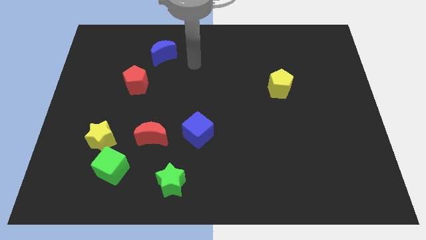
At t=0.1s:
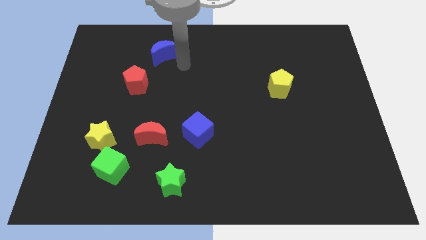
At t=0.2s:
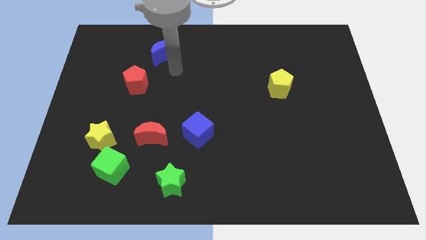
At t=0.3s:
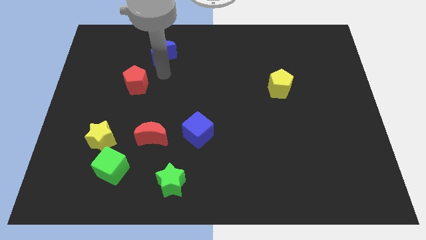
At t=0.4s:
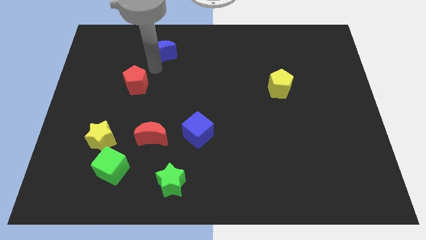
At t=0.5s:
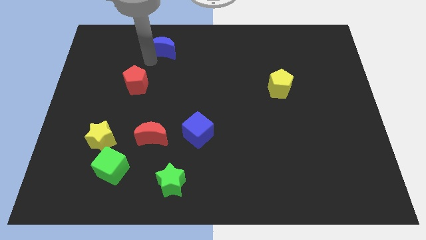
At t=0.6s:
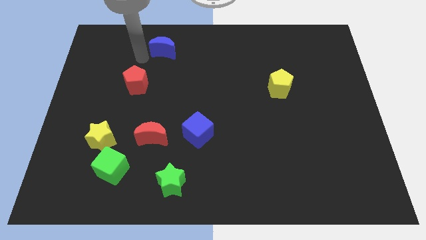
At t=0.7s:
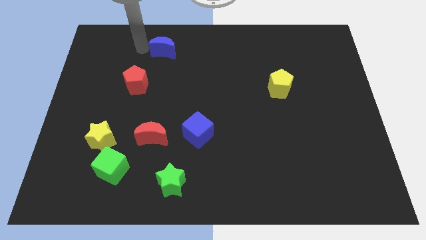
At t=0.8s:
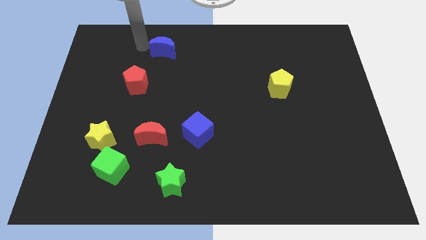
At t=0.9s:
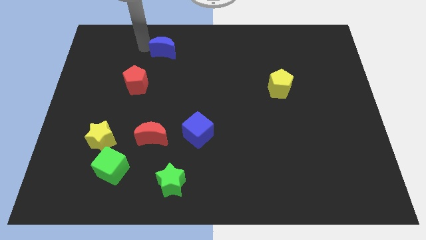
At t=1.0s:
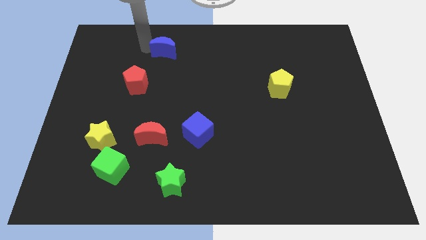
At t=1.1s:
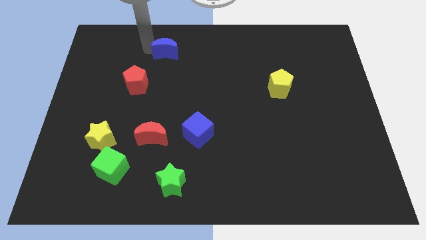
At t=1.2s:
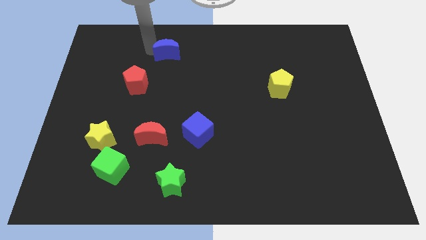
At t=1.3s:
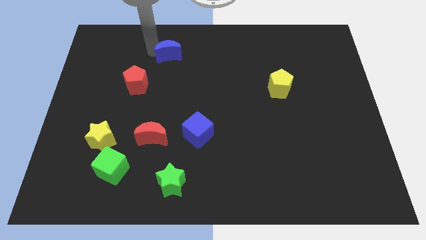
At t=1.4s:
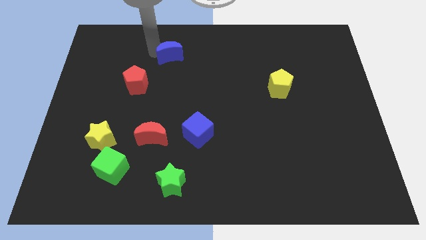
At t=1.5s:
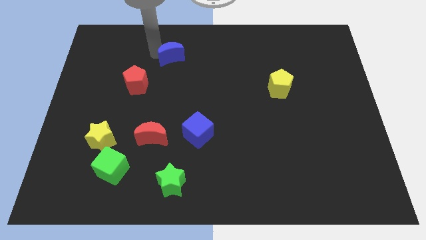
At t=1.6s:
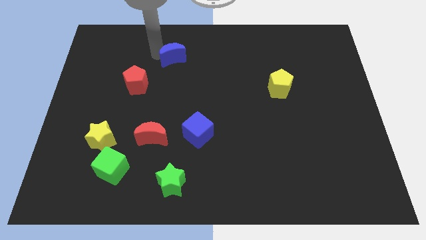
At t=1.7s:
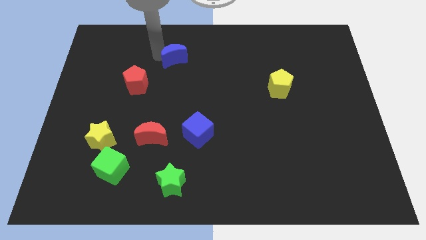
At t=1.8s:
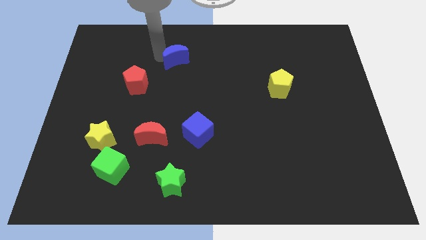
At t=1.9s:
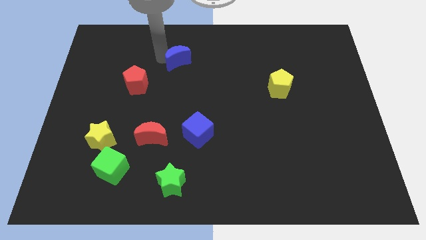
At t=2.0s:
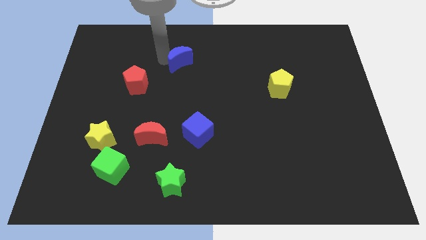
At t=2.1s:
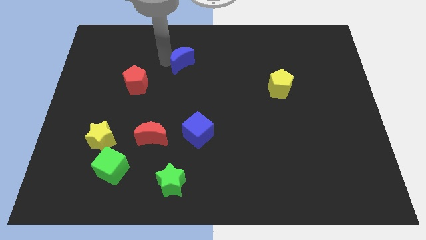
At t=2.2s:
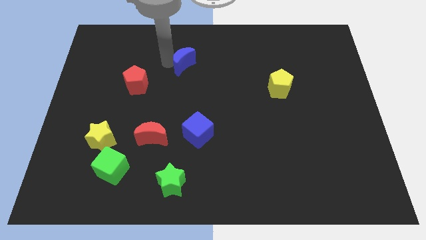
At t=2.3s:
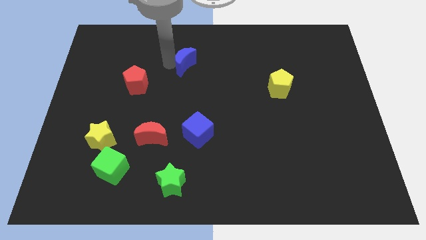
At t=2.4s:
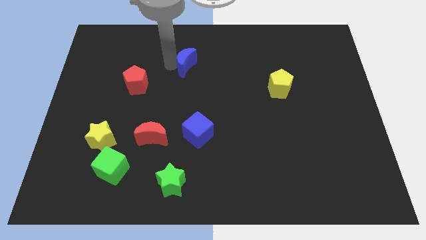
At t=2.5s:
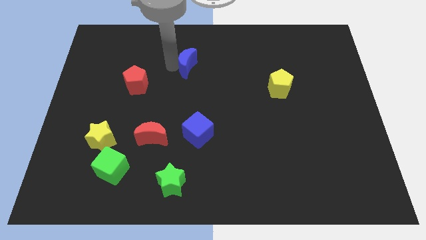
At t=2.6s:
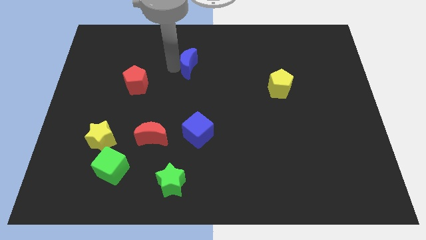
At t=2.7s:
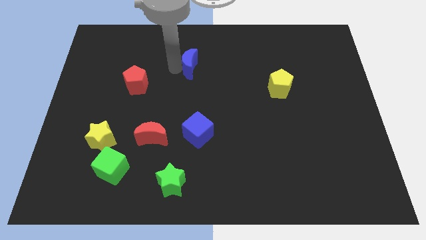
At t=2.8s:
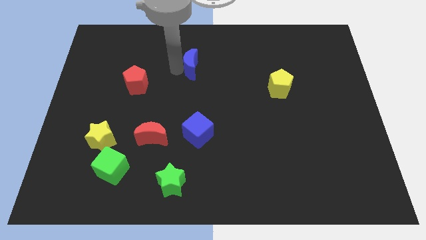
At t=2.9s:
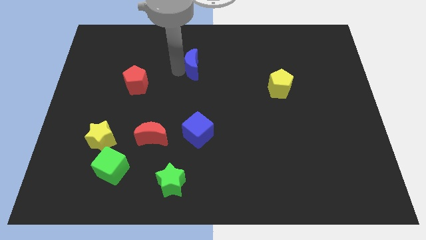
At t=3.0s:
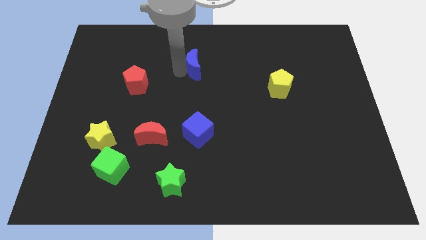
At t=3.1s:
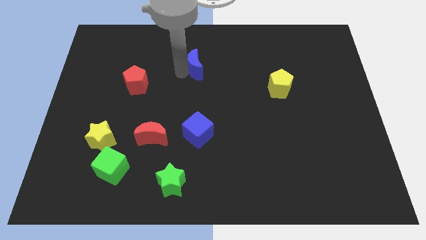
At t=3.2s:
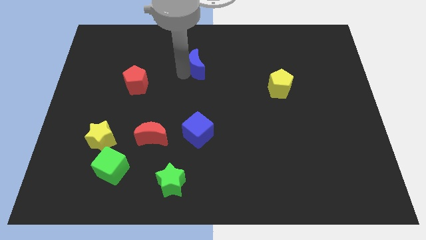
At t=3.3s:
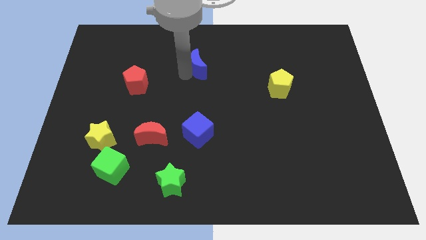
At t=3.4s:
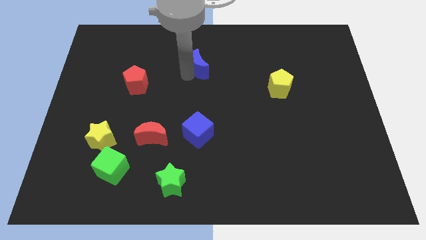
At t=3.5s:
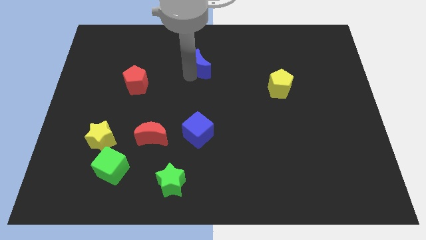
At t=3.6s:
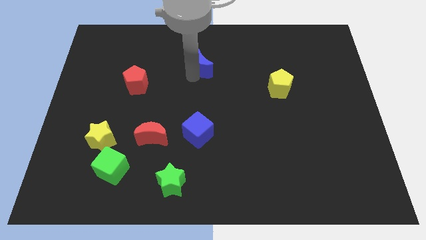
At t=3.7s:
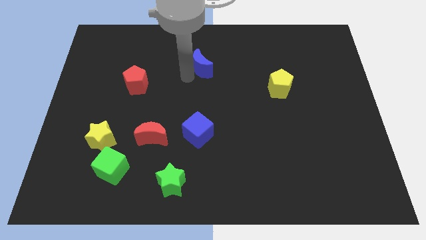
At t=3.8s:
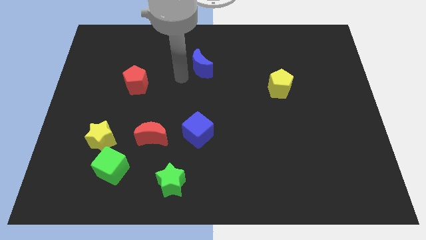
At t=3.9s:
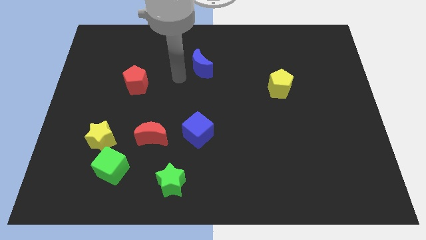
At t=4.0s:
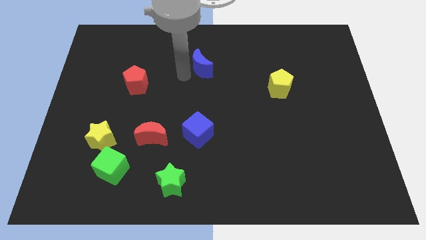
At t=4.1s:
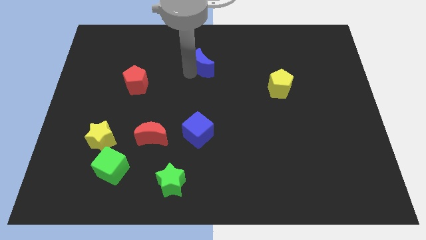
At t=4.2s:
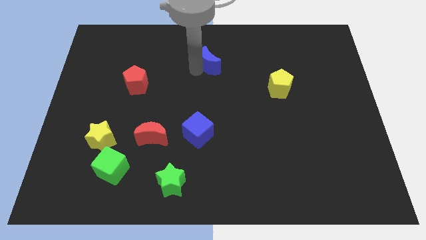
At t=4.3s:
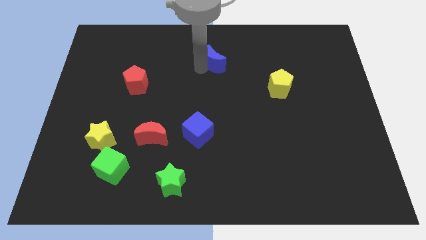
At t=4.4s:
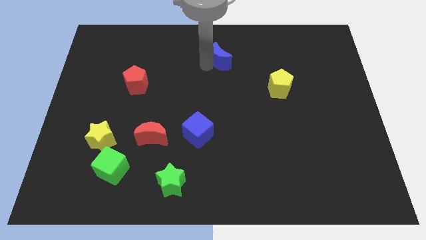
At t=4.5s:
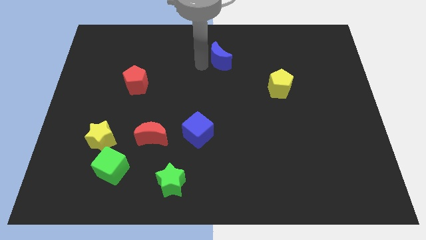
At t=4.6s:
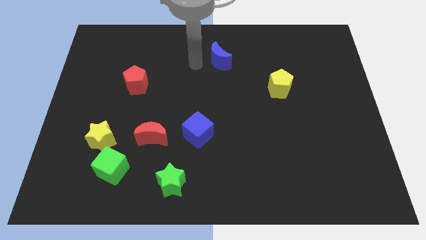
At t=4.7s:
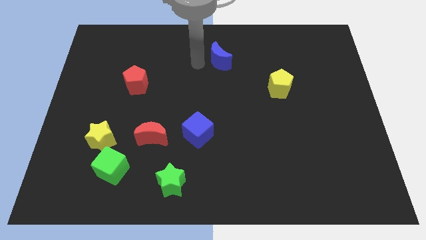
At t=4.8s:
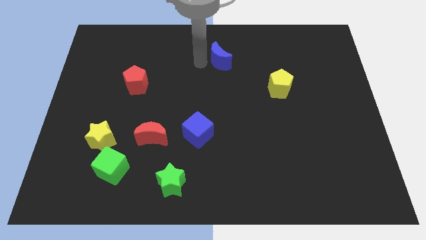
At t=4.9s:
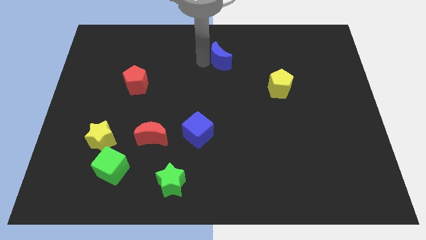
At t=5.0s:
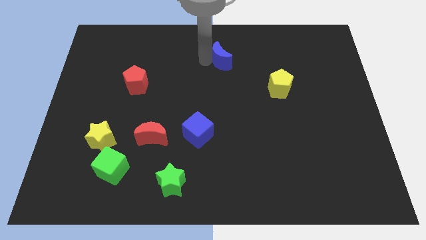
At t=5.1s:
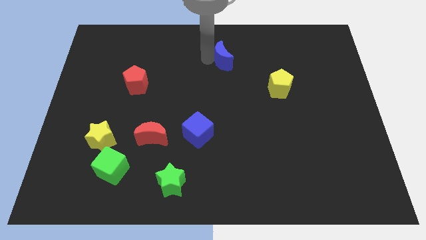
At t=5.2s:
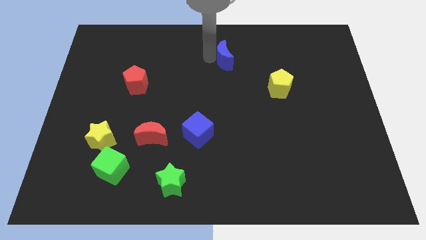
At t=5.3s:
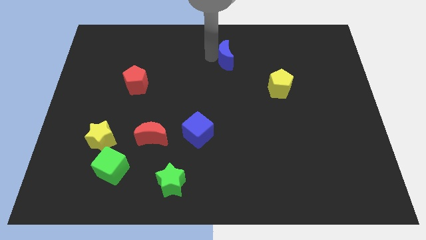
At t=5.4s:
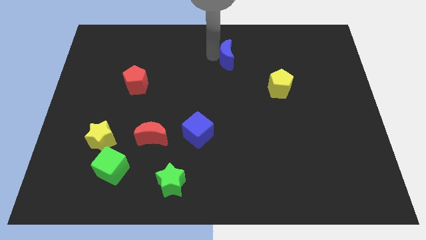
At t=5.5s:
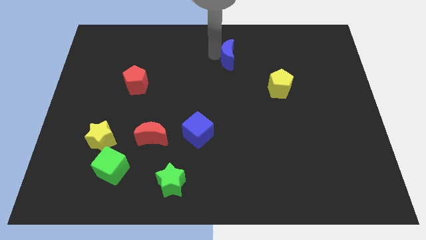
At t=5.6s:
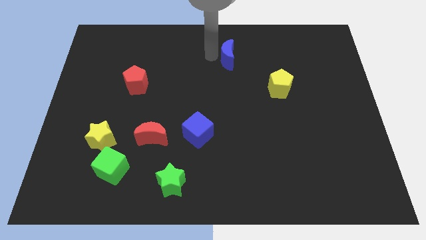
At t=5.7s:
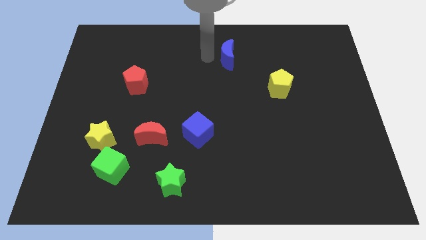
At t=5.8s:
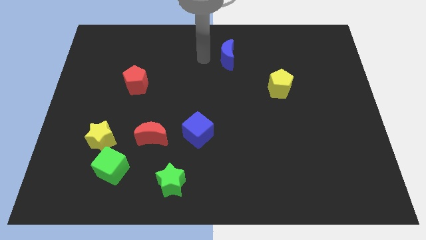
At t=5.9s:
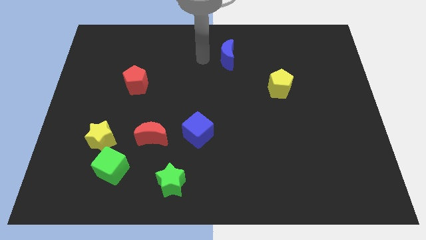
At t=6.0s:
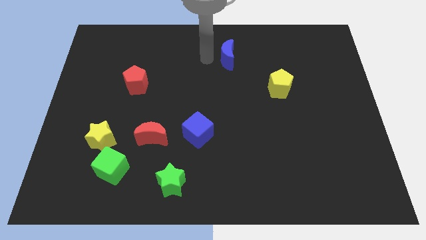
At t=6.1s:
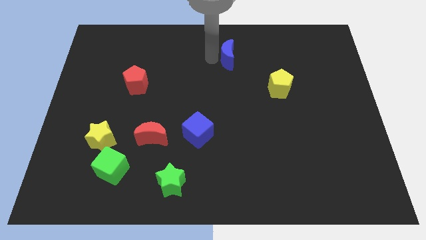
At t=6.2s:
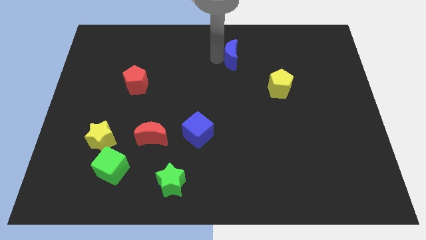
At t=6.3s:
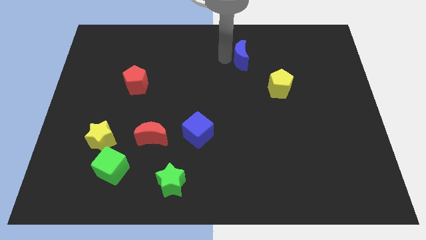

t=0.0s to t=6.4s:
slide the blue moon right

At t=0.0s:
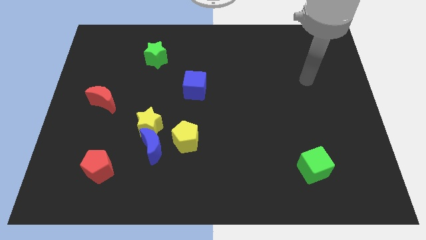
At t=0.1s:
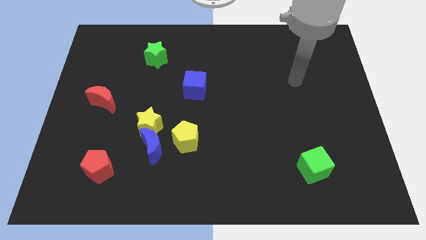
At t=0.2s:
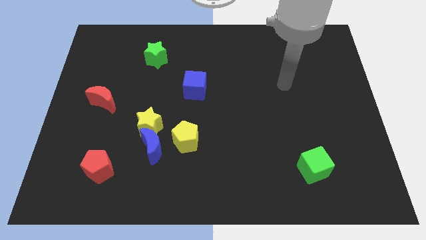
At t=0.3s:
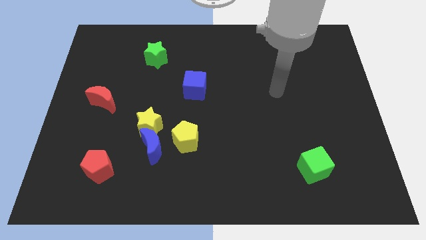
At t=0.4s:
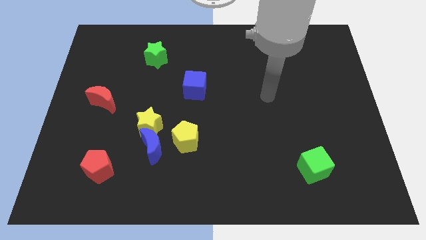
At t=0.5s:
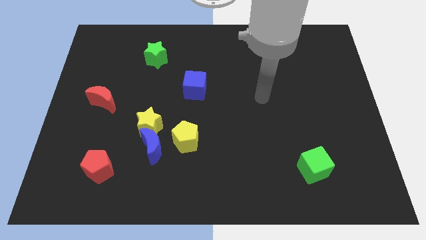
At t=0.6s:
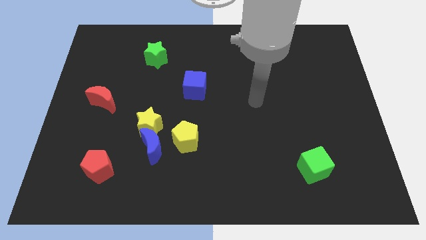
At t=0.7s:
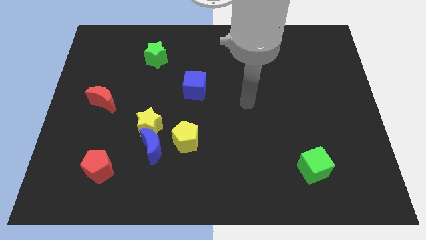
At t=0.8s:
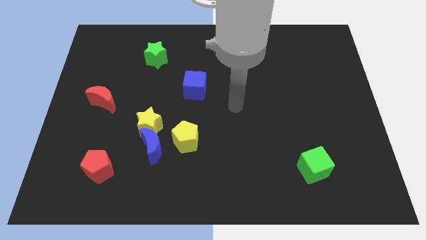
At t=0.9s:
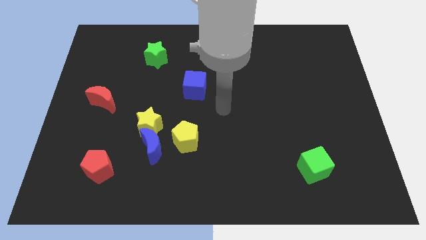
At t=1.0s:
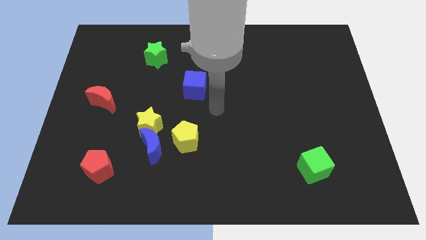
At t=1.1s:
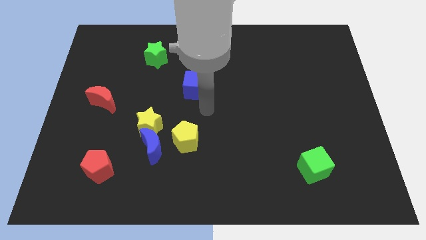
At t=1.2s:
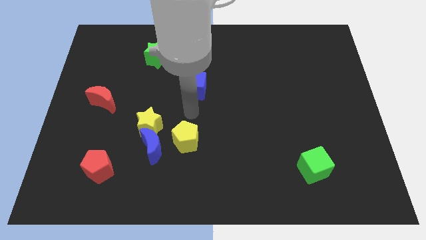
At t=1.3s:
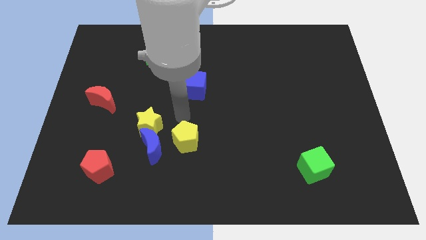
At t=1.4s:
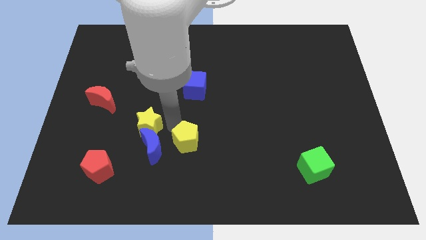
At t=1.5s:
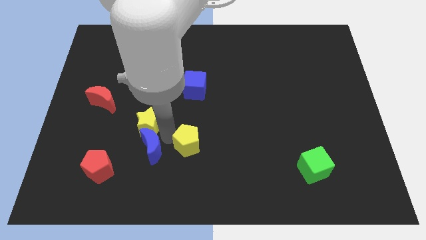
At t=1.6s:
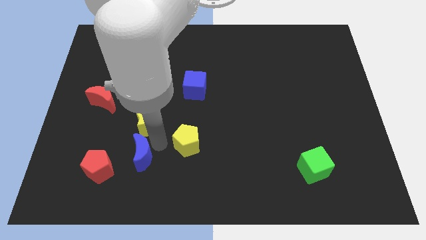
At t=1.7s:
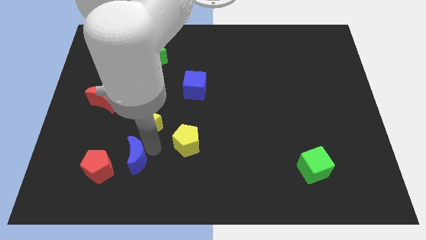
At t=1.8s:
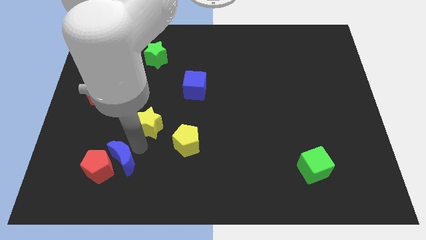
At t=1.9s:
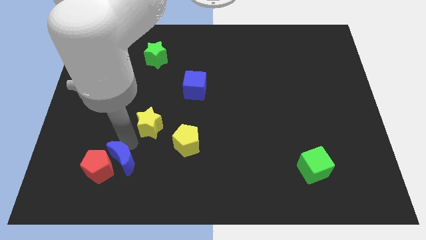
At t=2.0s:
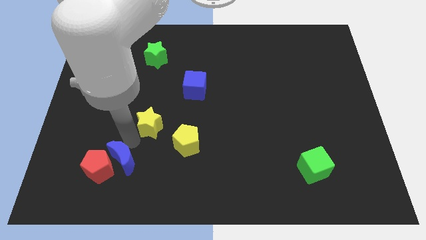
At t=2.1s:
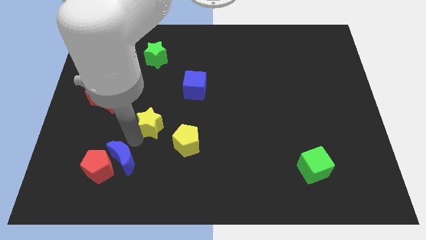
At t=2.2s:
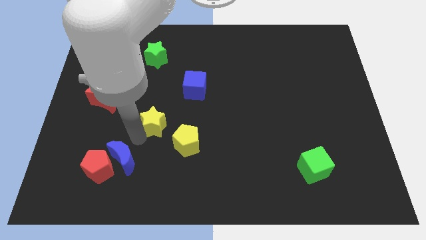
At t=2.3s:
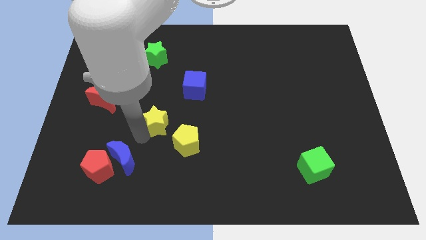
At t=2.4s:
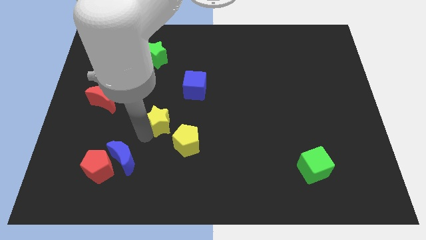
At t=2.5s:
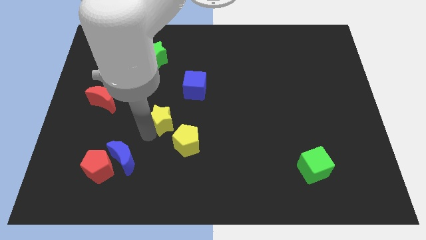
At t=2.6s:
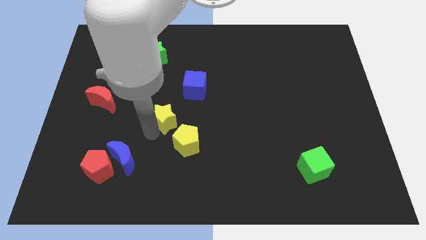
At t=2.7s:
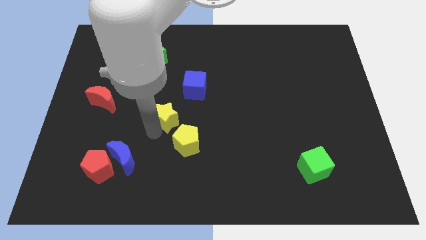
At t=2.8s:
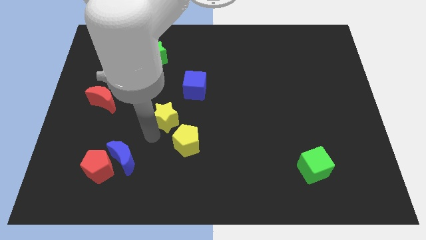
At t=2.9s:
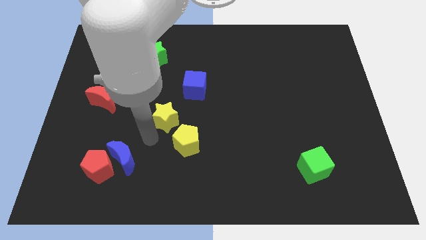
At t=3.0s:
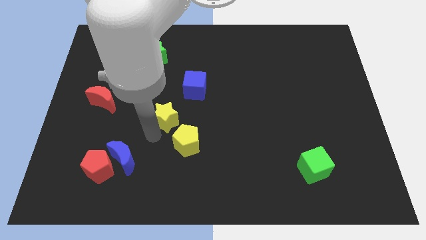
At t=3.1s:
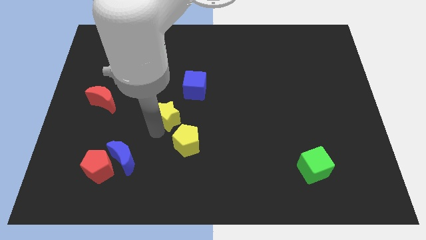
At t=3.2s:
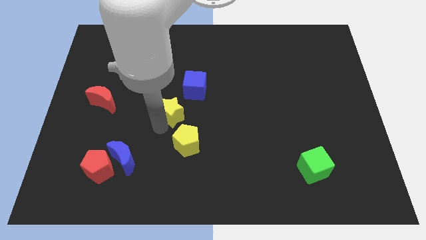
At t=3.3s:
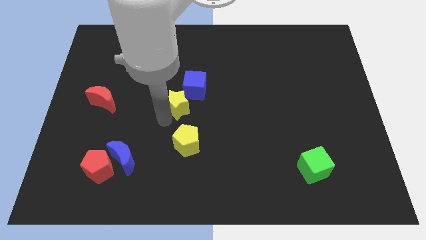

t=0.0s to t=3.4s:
slightly push the yellow star up and then to the right
